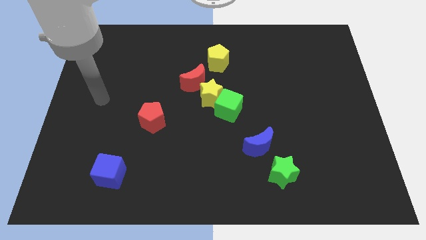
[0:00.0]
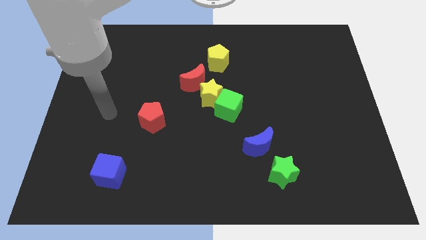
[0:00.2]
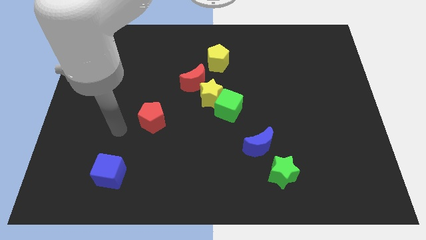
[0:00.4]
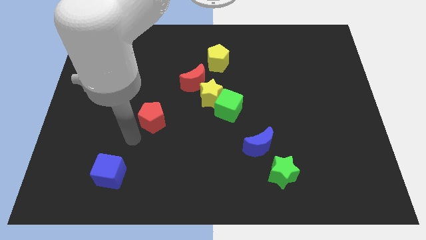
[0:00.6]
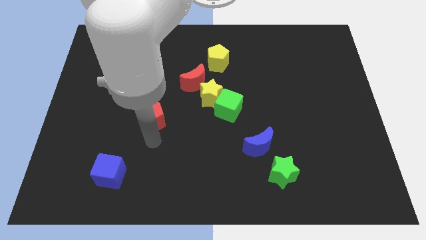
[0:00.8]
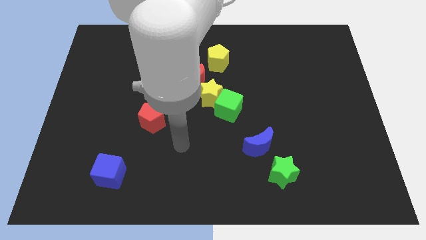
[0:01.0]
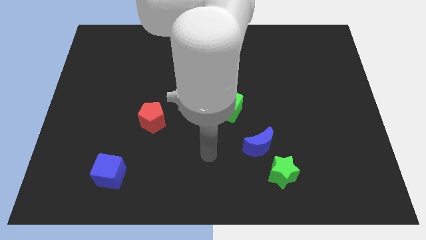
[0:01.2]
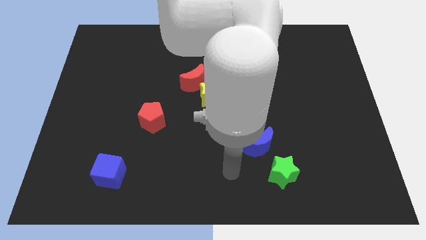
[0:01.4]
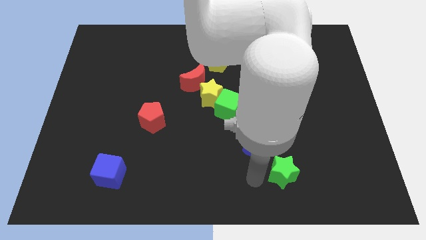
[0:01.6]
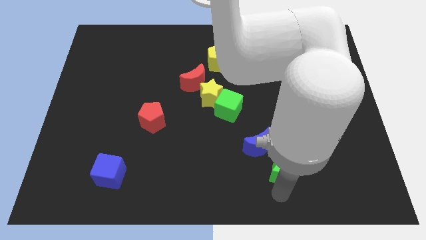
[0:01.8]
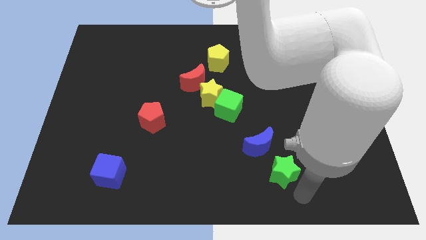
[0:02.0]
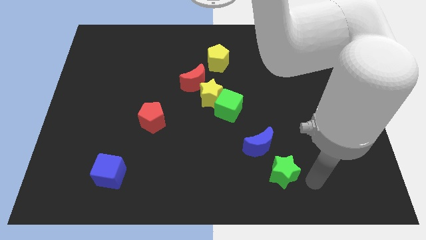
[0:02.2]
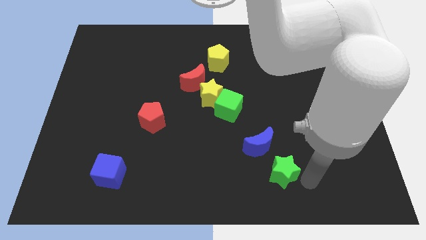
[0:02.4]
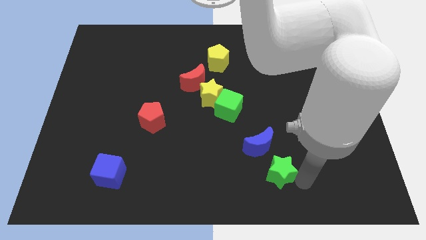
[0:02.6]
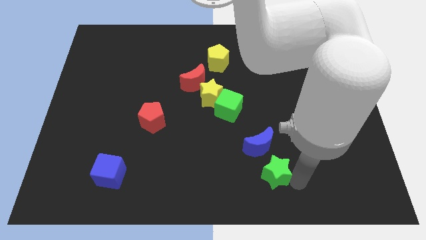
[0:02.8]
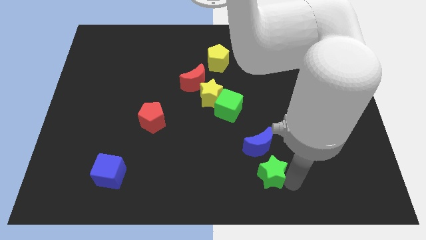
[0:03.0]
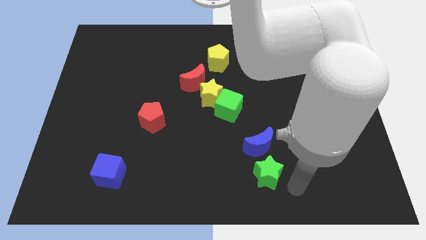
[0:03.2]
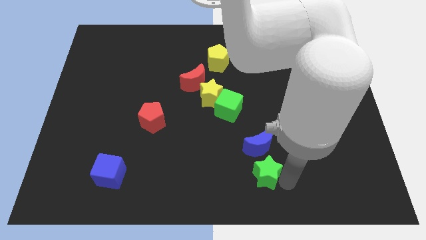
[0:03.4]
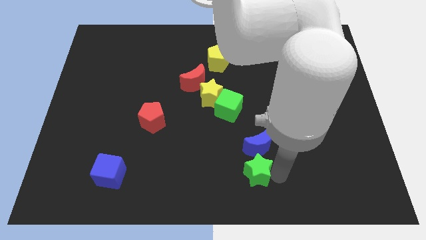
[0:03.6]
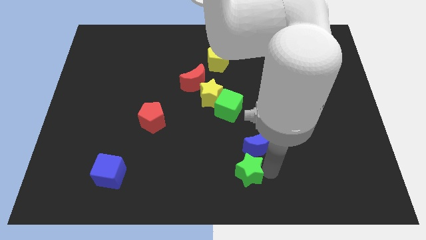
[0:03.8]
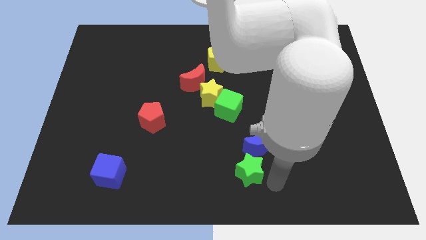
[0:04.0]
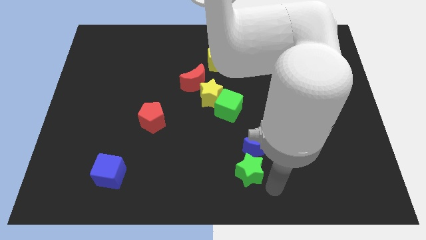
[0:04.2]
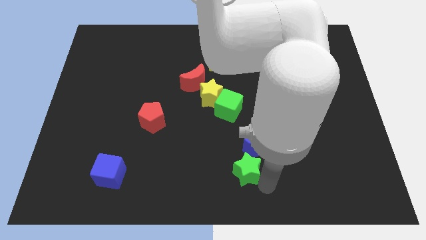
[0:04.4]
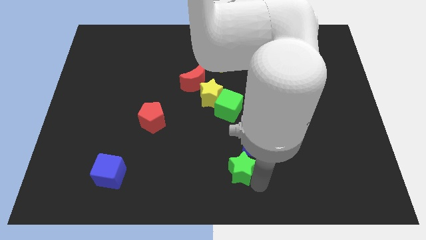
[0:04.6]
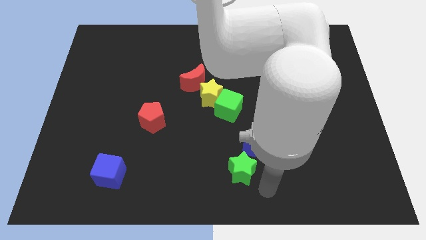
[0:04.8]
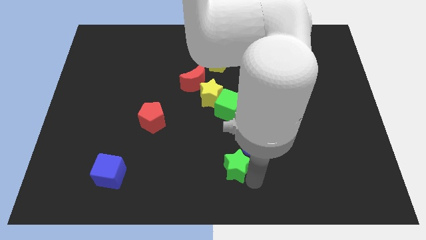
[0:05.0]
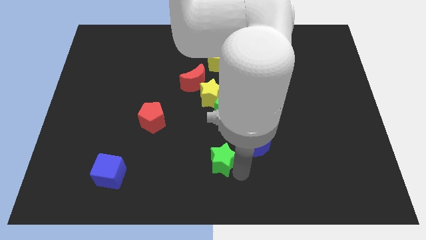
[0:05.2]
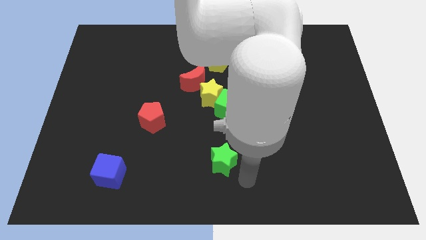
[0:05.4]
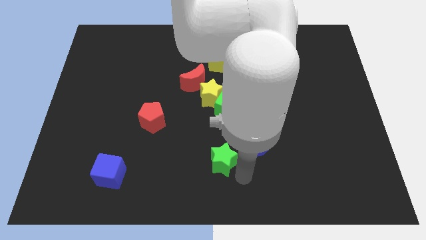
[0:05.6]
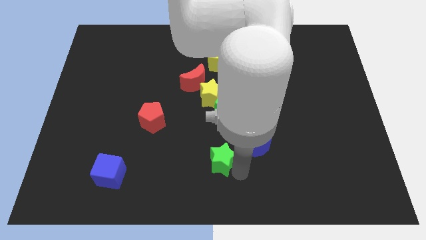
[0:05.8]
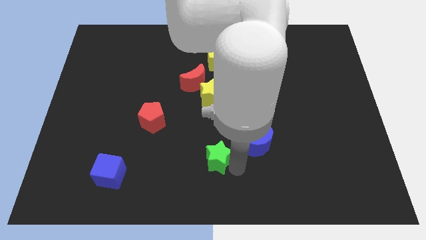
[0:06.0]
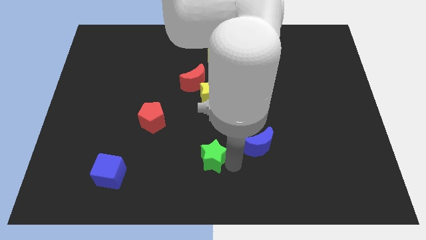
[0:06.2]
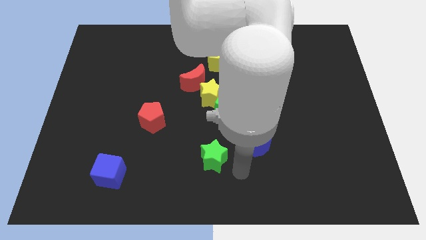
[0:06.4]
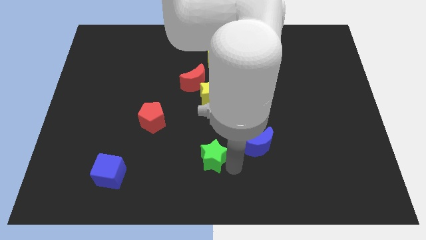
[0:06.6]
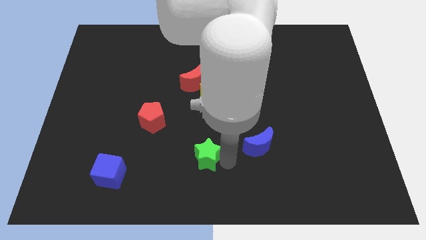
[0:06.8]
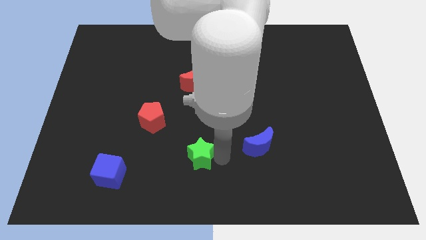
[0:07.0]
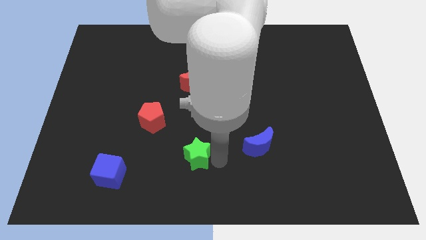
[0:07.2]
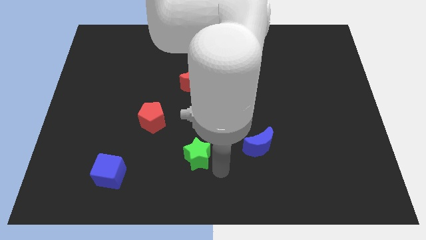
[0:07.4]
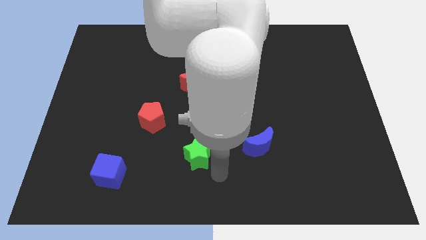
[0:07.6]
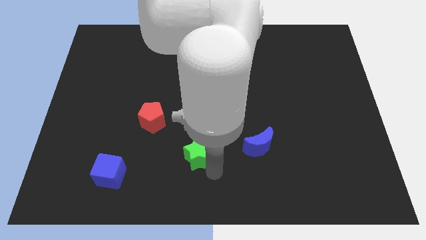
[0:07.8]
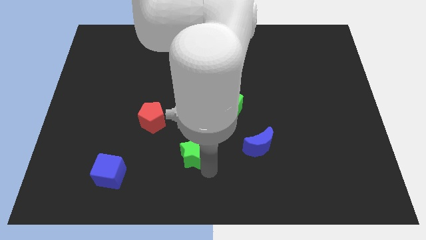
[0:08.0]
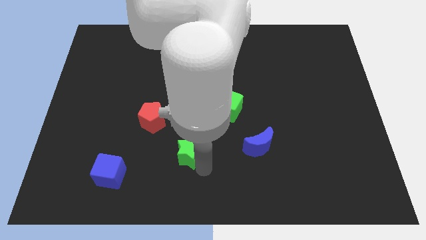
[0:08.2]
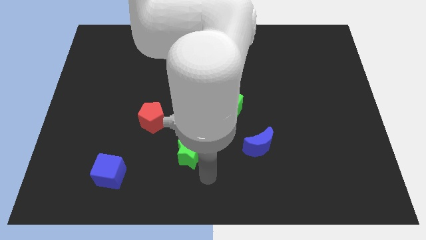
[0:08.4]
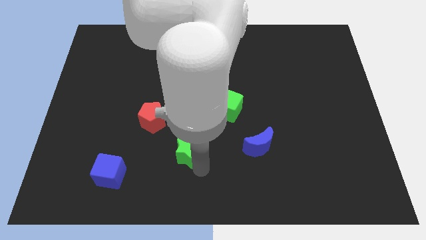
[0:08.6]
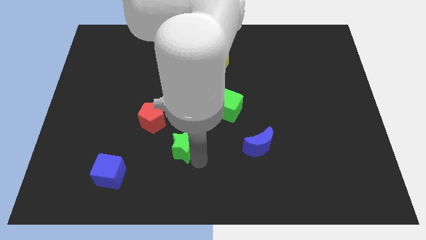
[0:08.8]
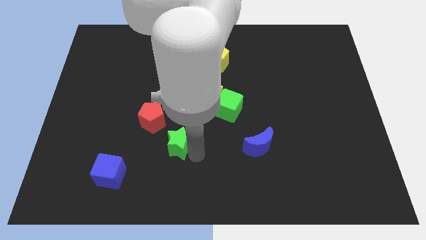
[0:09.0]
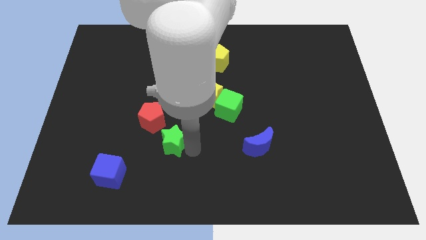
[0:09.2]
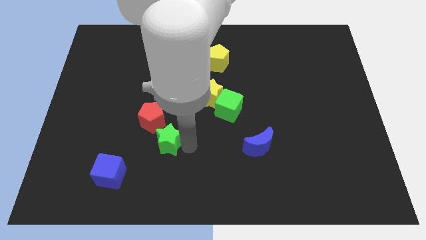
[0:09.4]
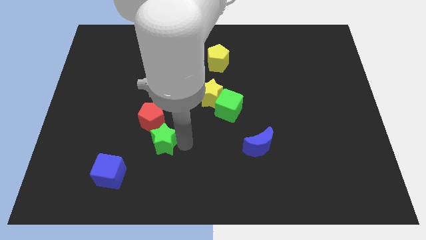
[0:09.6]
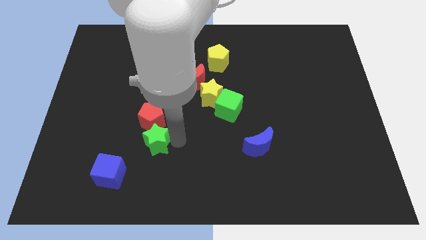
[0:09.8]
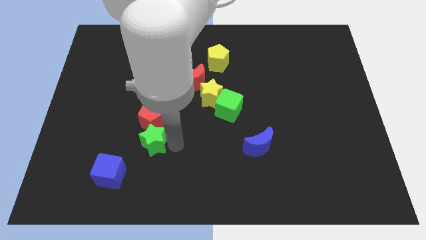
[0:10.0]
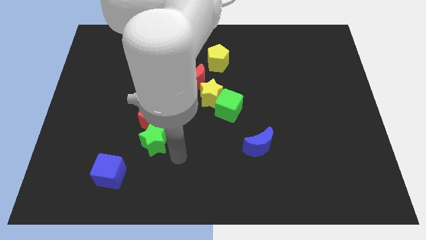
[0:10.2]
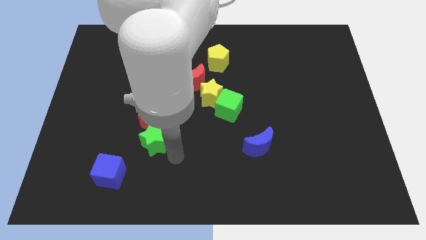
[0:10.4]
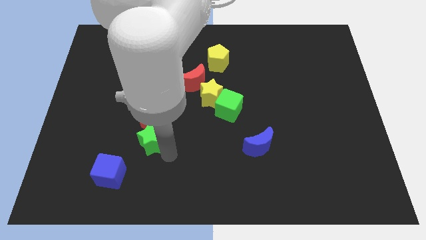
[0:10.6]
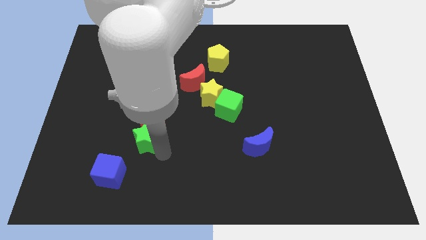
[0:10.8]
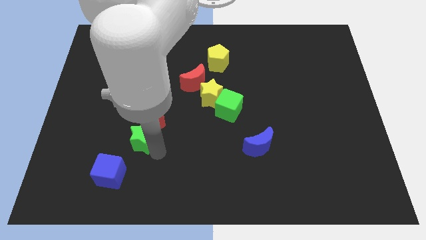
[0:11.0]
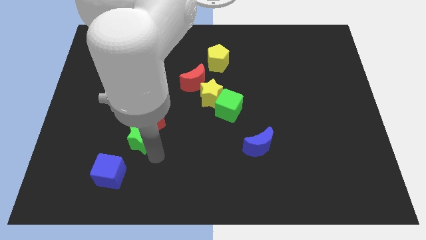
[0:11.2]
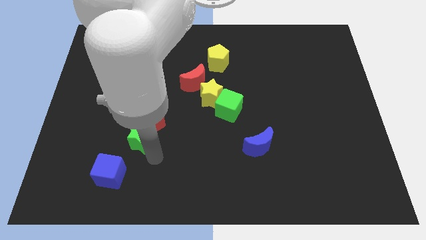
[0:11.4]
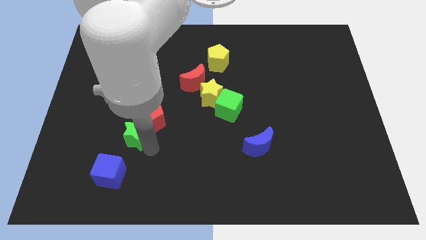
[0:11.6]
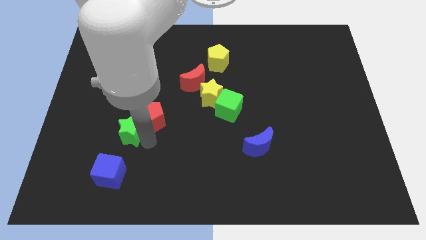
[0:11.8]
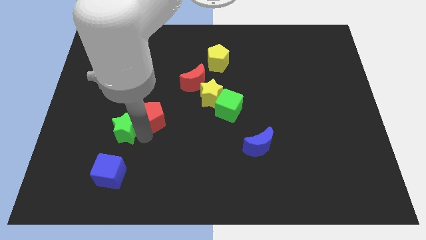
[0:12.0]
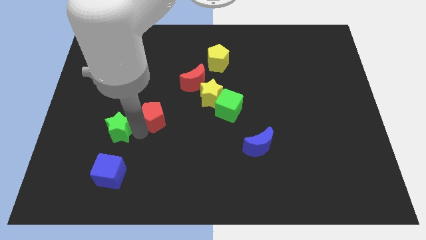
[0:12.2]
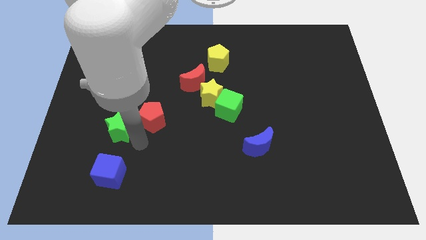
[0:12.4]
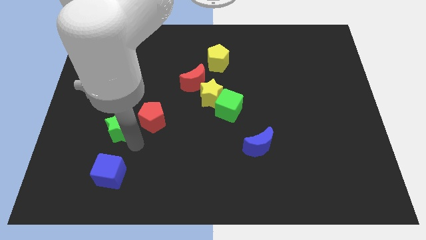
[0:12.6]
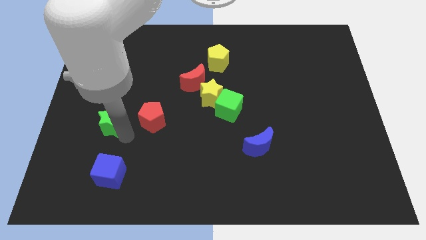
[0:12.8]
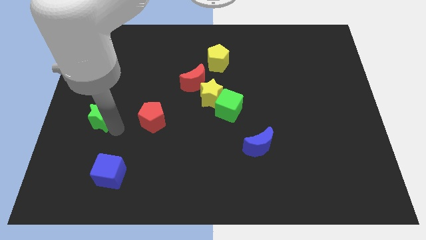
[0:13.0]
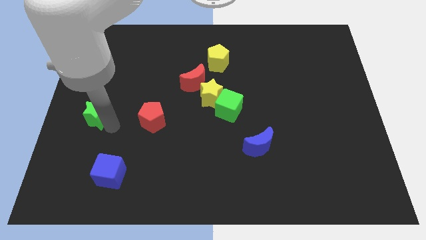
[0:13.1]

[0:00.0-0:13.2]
push the green star to the left side
